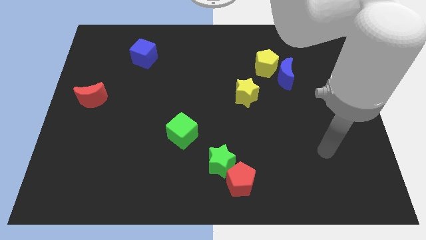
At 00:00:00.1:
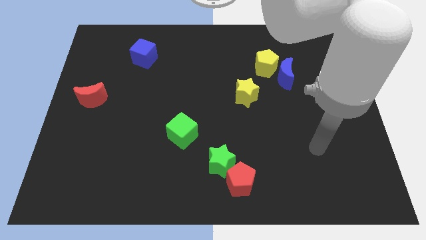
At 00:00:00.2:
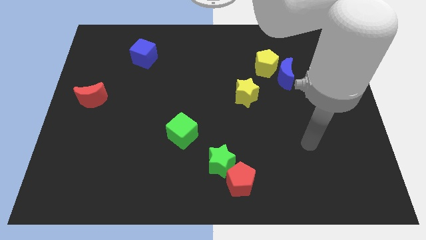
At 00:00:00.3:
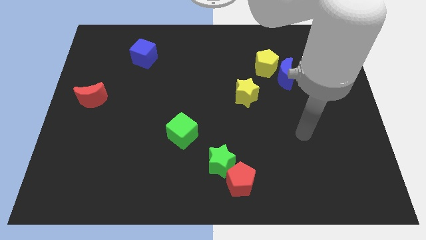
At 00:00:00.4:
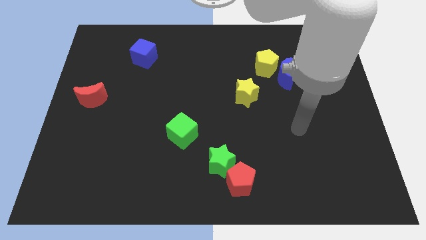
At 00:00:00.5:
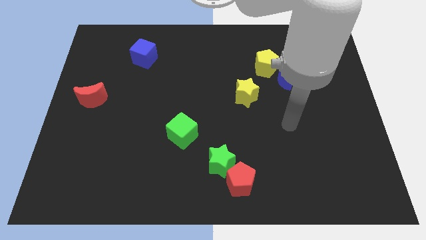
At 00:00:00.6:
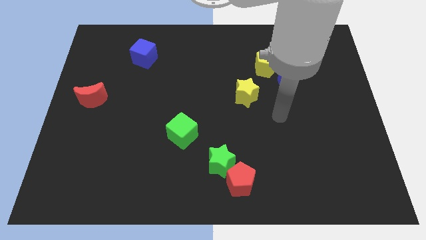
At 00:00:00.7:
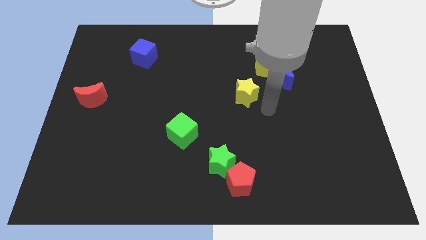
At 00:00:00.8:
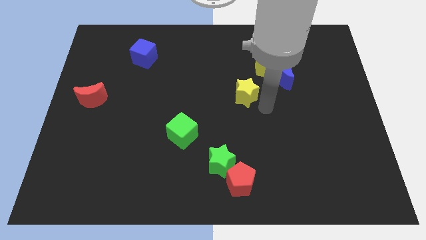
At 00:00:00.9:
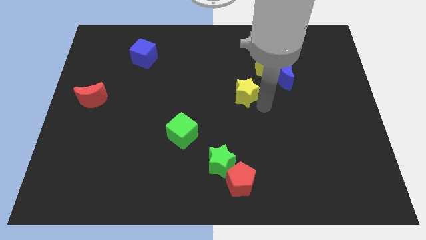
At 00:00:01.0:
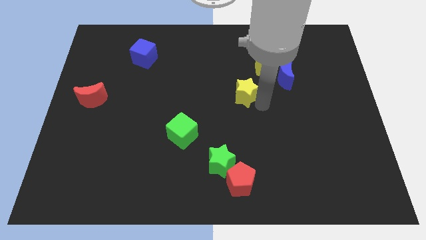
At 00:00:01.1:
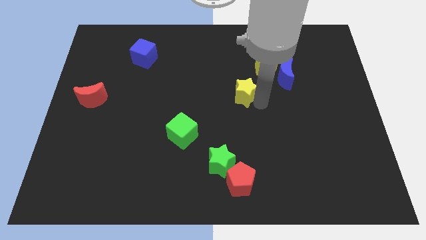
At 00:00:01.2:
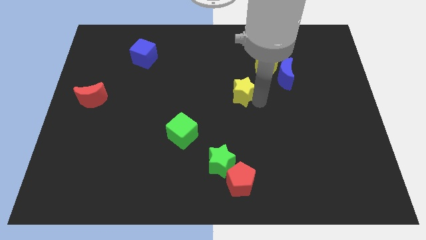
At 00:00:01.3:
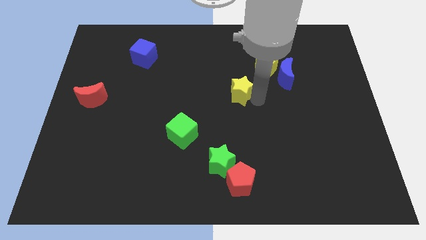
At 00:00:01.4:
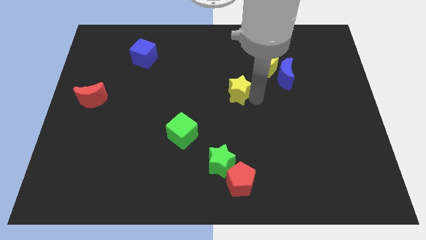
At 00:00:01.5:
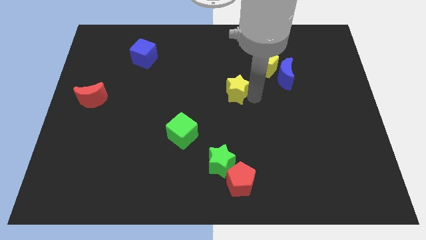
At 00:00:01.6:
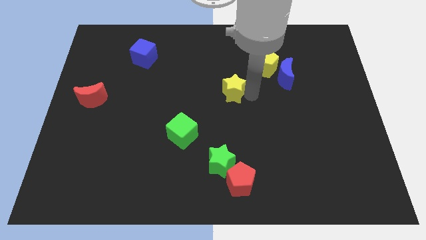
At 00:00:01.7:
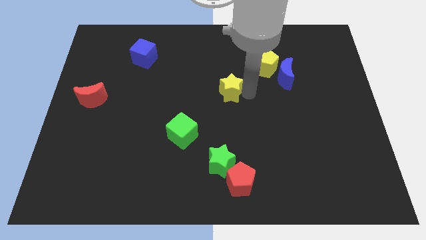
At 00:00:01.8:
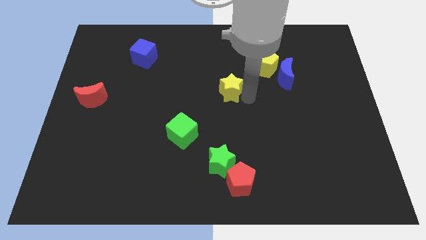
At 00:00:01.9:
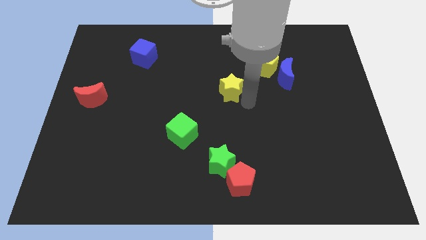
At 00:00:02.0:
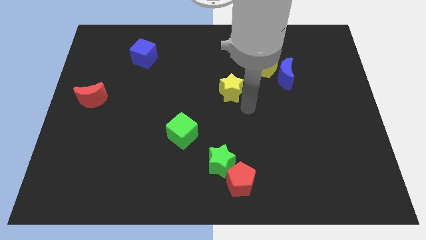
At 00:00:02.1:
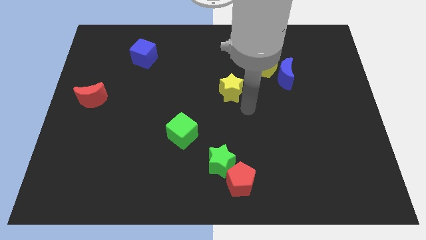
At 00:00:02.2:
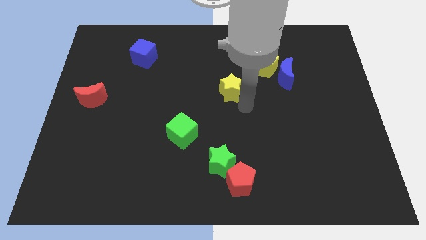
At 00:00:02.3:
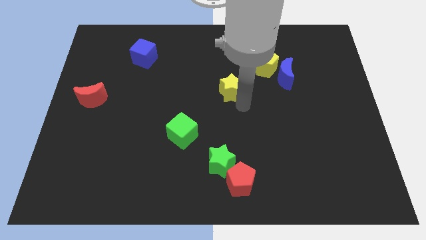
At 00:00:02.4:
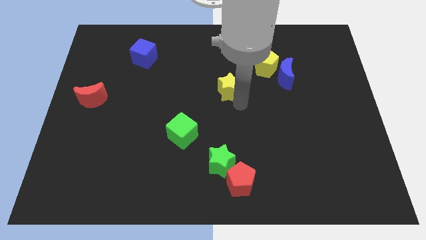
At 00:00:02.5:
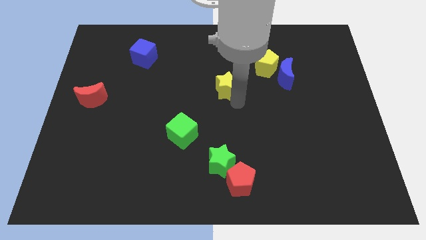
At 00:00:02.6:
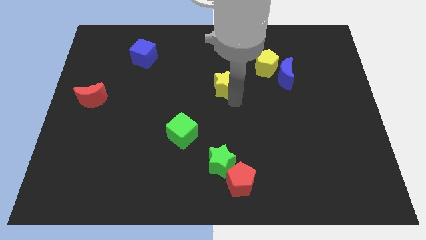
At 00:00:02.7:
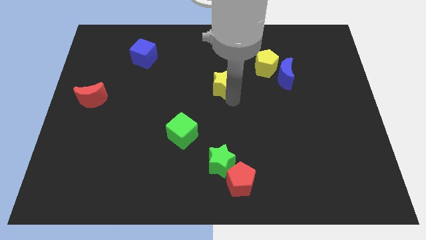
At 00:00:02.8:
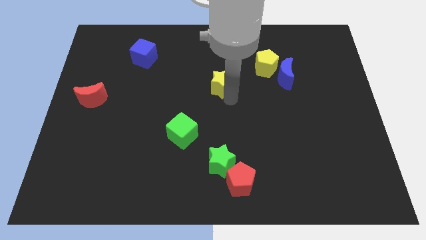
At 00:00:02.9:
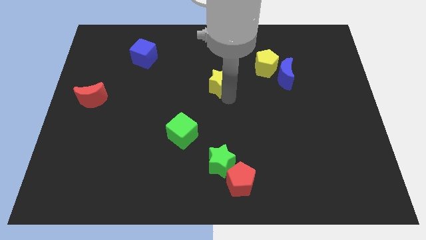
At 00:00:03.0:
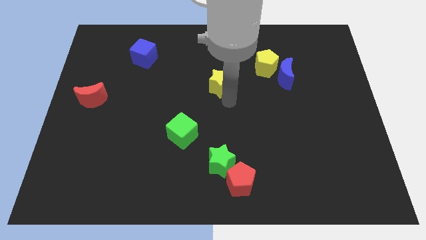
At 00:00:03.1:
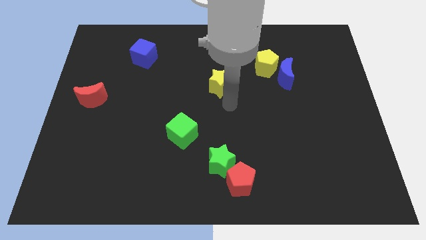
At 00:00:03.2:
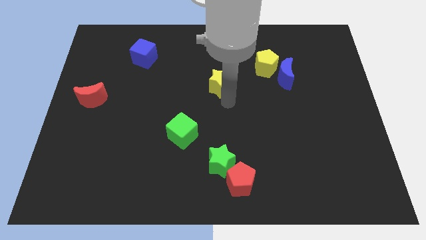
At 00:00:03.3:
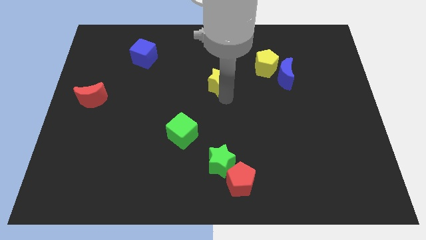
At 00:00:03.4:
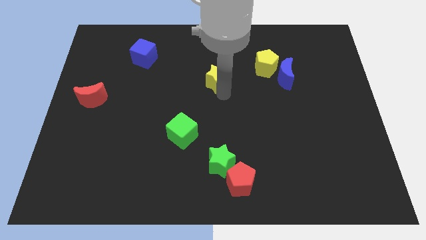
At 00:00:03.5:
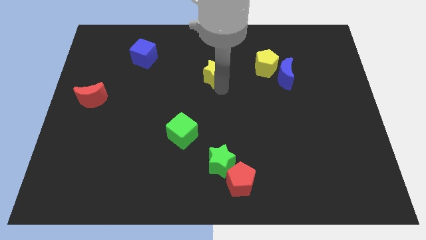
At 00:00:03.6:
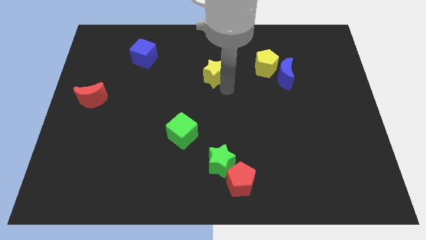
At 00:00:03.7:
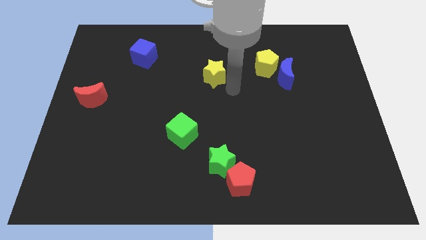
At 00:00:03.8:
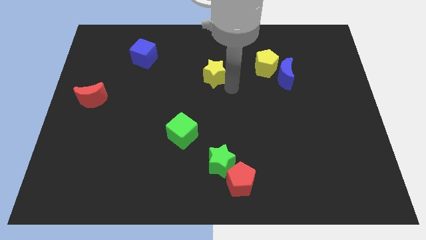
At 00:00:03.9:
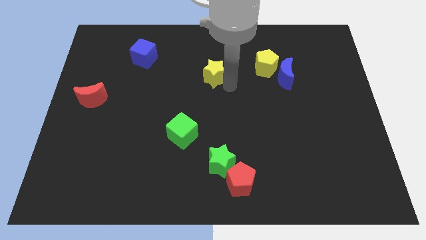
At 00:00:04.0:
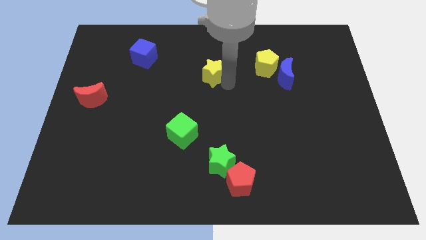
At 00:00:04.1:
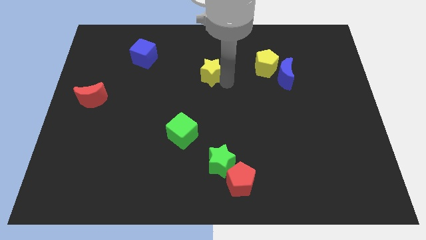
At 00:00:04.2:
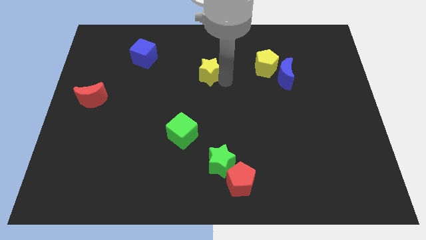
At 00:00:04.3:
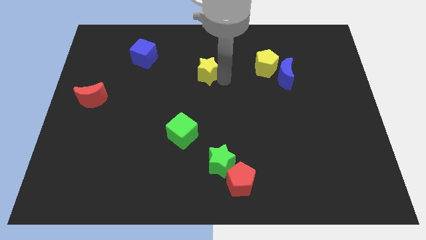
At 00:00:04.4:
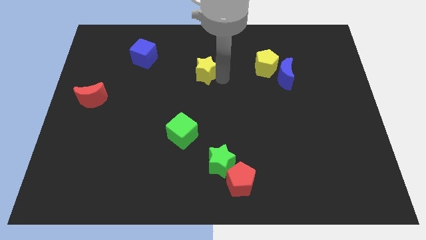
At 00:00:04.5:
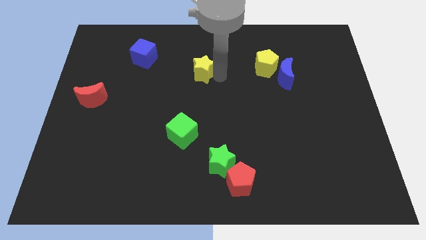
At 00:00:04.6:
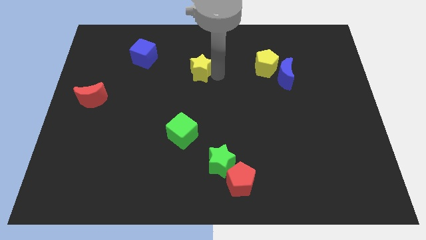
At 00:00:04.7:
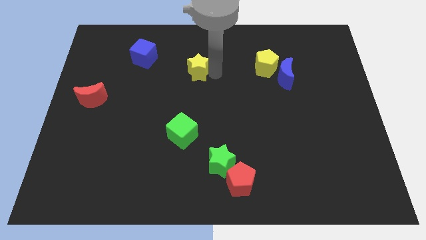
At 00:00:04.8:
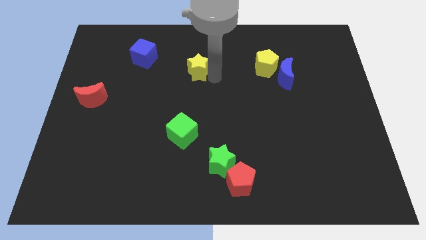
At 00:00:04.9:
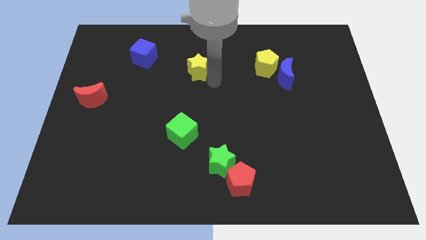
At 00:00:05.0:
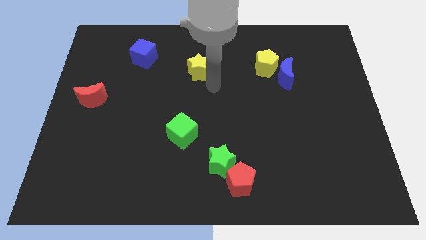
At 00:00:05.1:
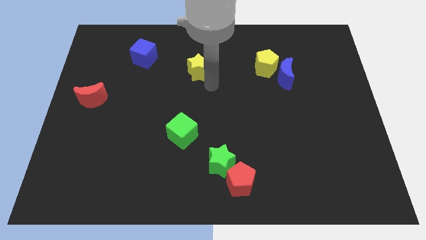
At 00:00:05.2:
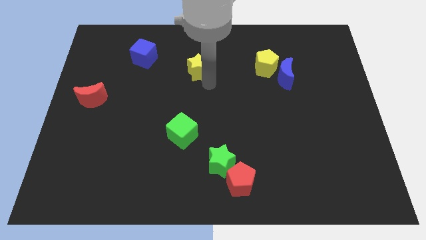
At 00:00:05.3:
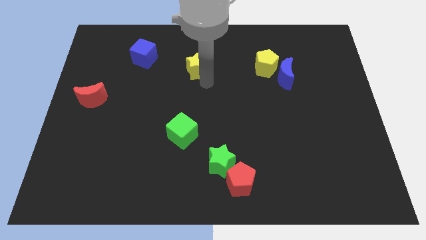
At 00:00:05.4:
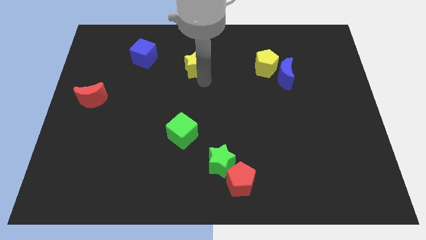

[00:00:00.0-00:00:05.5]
move the yellow star to the right of the blue cube

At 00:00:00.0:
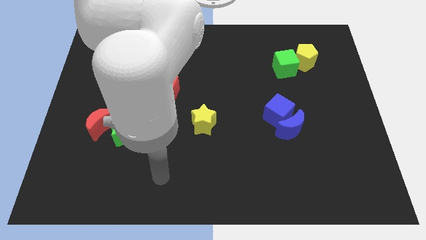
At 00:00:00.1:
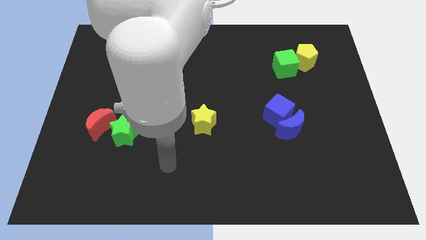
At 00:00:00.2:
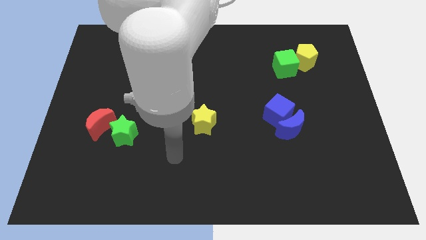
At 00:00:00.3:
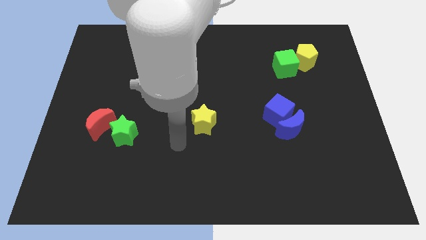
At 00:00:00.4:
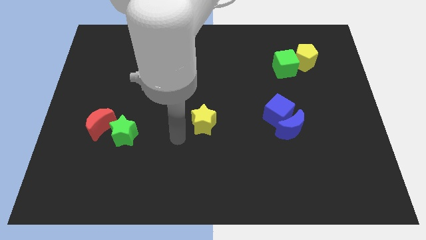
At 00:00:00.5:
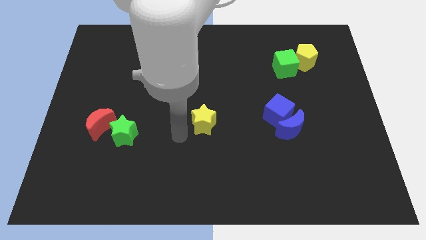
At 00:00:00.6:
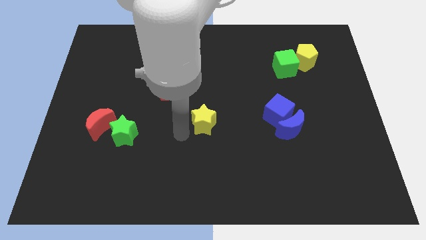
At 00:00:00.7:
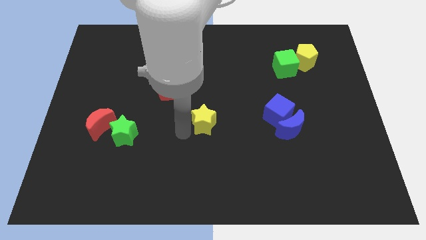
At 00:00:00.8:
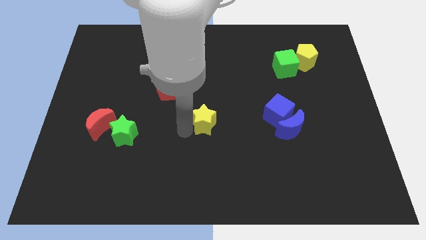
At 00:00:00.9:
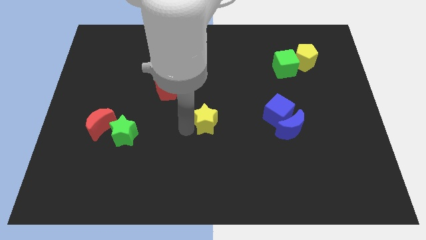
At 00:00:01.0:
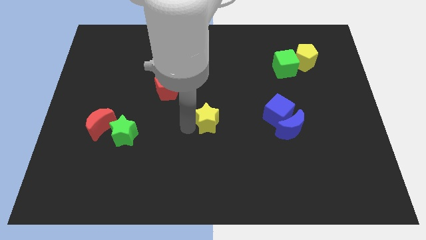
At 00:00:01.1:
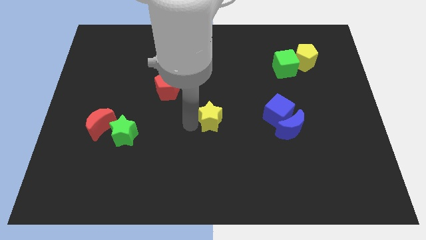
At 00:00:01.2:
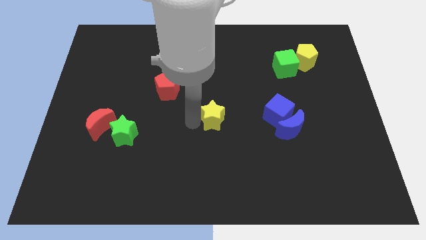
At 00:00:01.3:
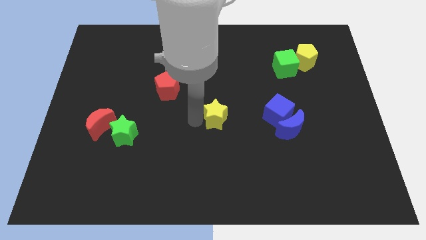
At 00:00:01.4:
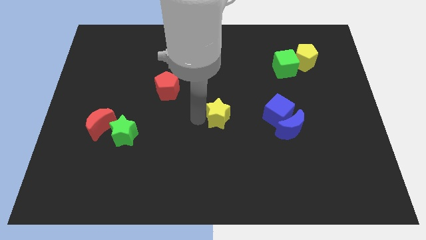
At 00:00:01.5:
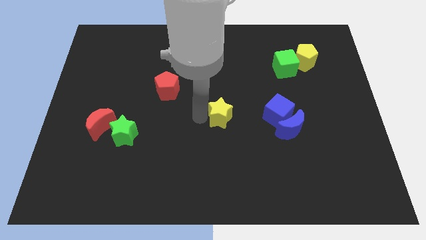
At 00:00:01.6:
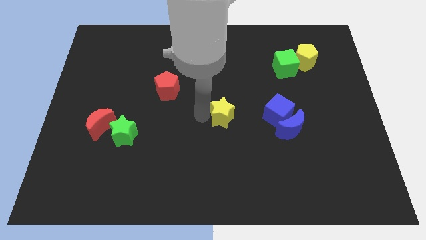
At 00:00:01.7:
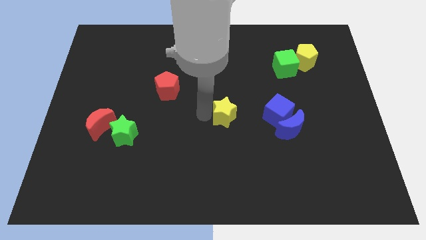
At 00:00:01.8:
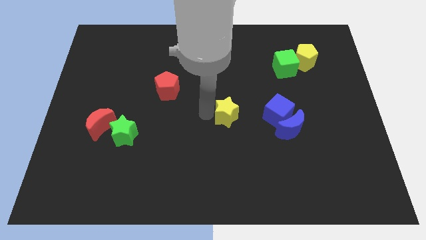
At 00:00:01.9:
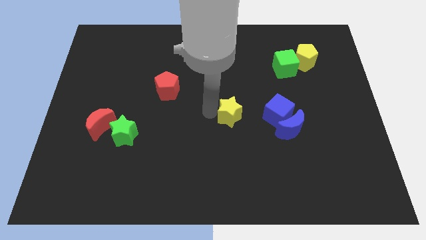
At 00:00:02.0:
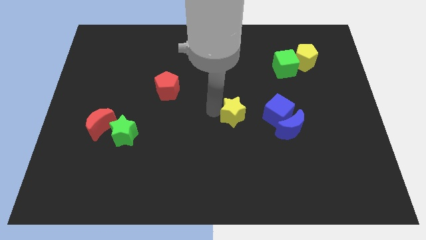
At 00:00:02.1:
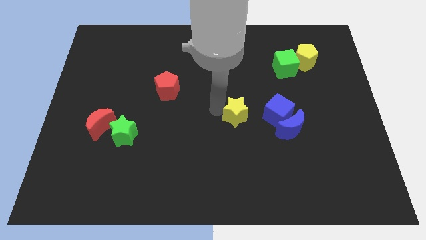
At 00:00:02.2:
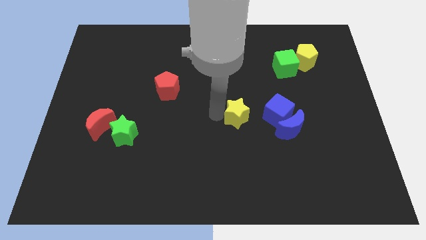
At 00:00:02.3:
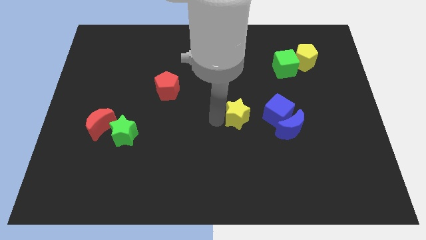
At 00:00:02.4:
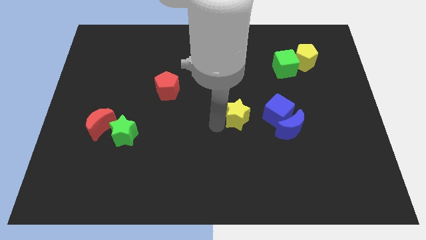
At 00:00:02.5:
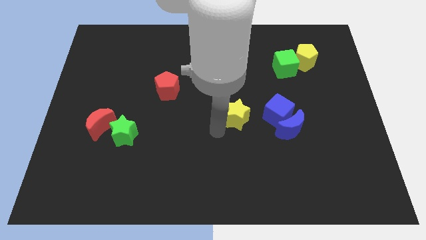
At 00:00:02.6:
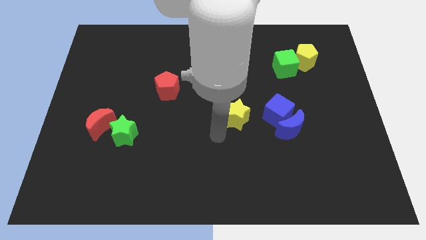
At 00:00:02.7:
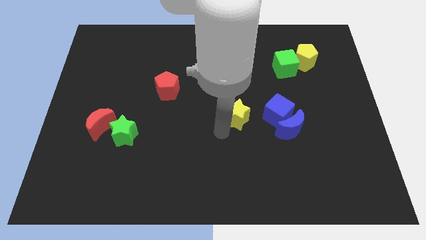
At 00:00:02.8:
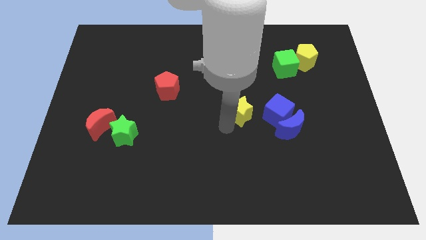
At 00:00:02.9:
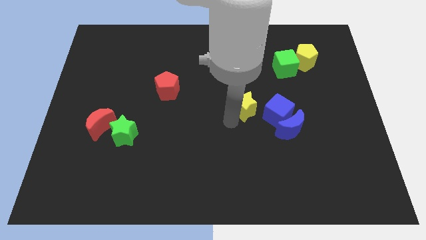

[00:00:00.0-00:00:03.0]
slide the yellow star to the top left side of the blue cube
